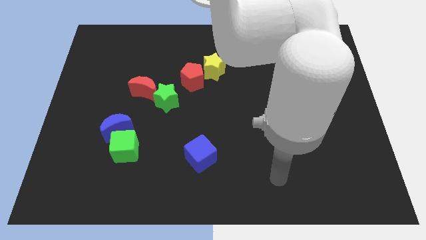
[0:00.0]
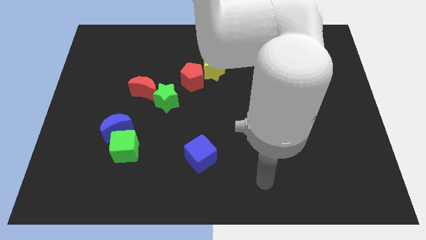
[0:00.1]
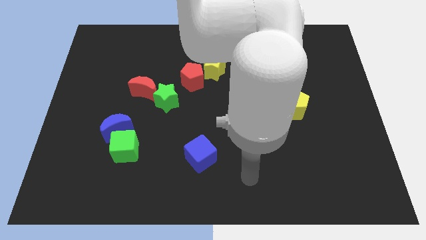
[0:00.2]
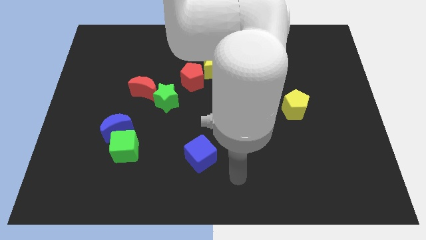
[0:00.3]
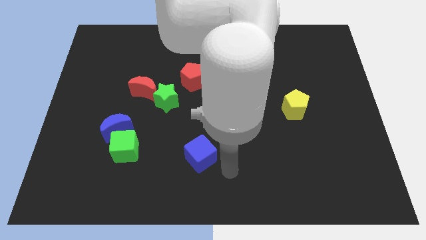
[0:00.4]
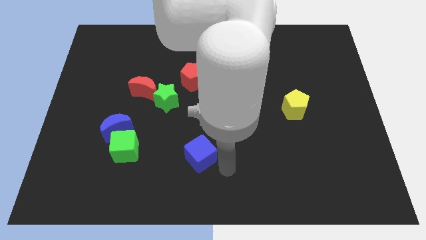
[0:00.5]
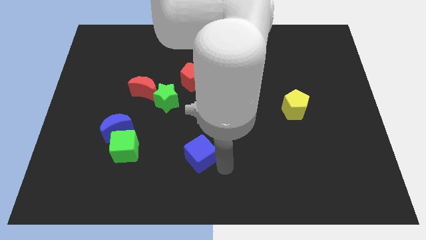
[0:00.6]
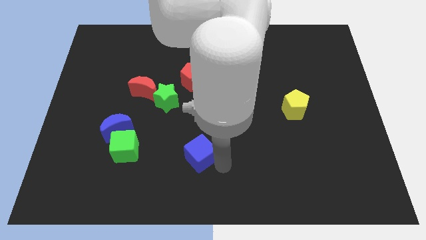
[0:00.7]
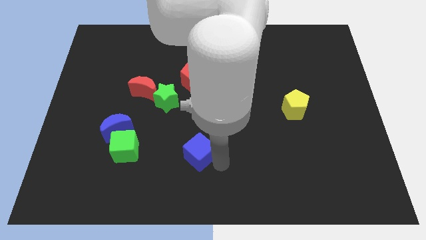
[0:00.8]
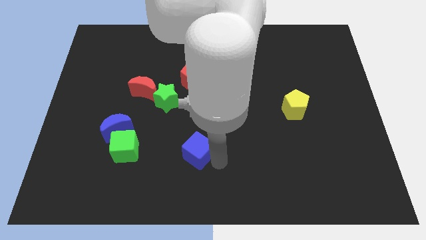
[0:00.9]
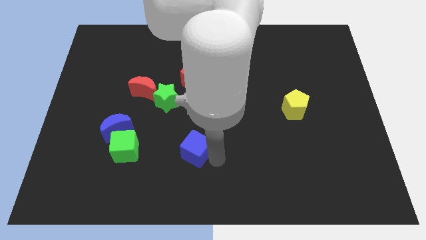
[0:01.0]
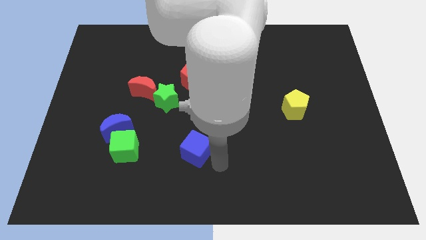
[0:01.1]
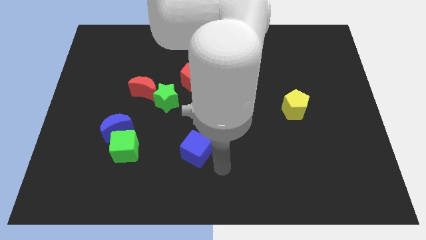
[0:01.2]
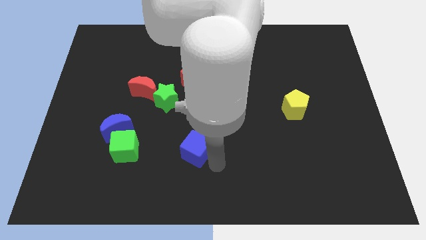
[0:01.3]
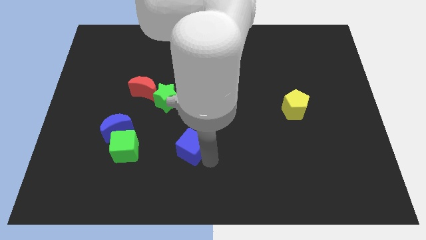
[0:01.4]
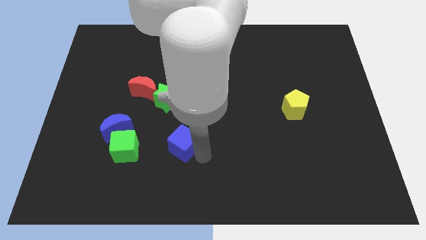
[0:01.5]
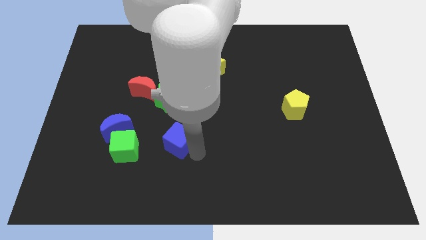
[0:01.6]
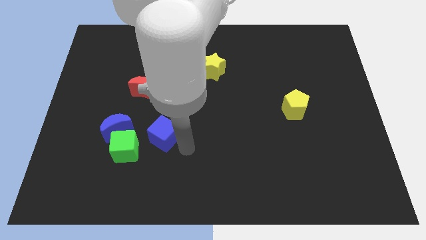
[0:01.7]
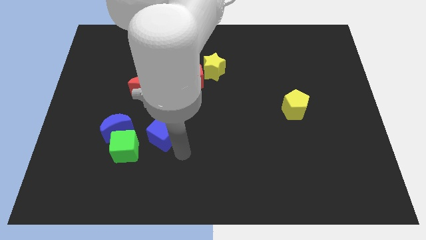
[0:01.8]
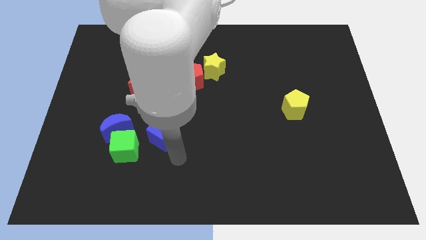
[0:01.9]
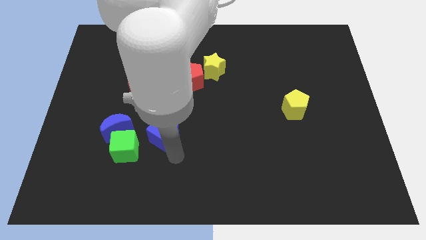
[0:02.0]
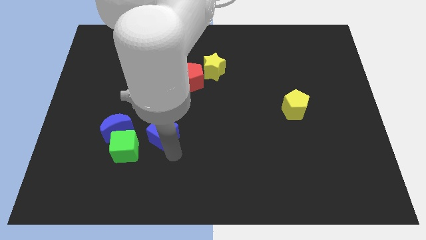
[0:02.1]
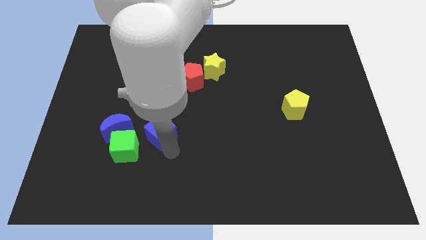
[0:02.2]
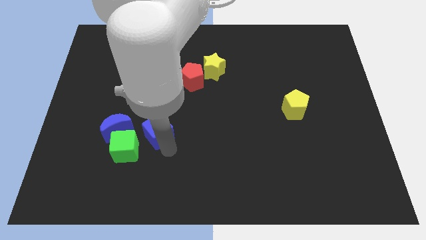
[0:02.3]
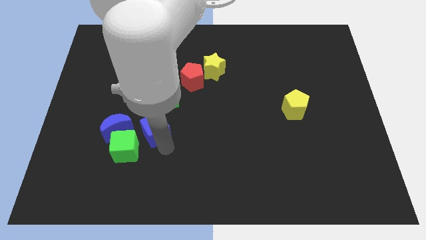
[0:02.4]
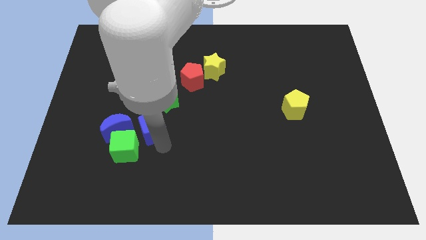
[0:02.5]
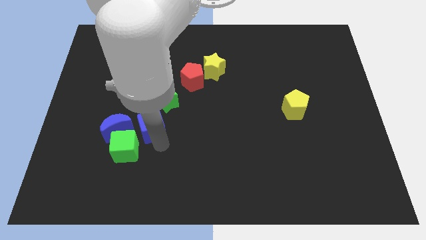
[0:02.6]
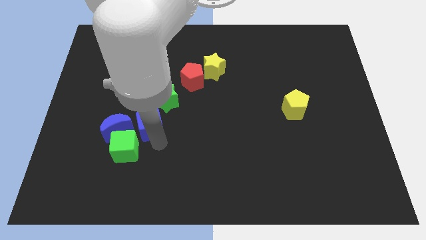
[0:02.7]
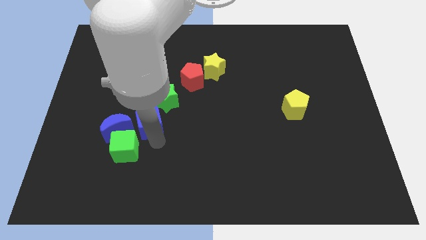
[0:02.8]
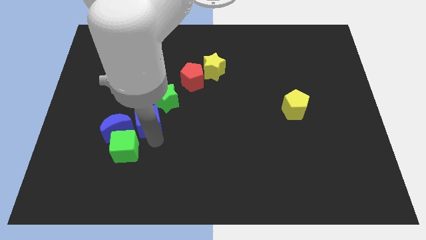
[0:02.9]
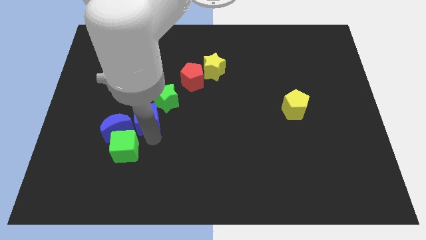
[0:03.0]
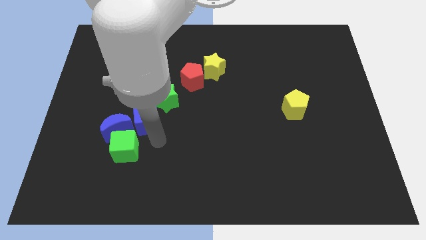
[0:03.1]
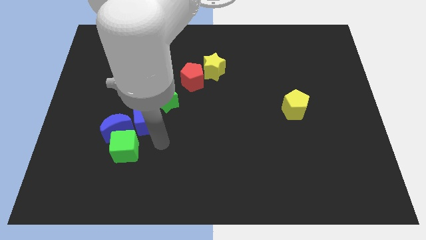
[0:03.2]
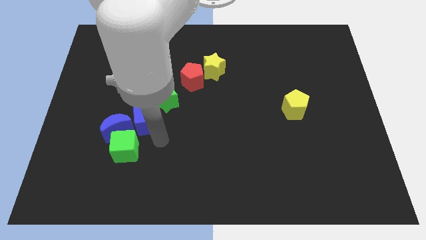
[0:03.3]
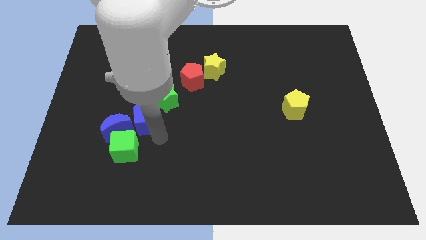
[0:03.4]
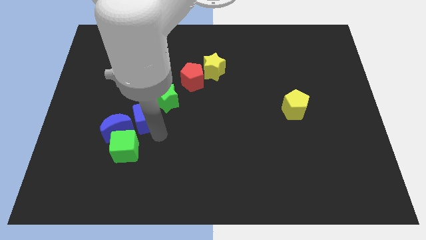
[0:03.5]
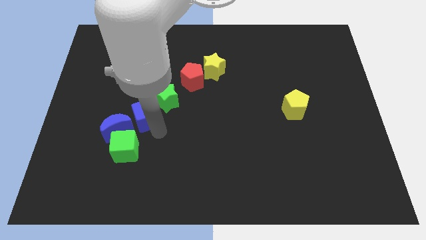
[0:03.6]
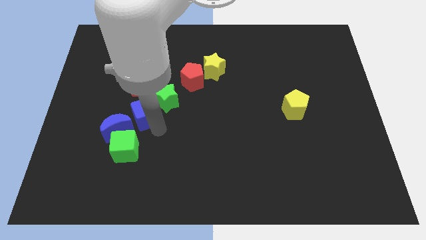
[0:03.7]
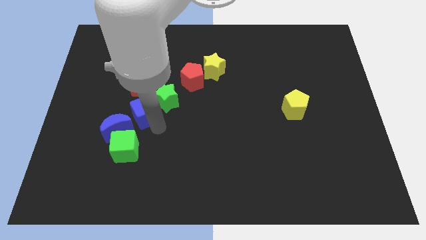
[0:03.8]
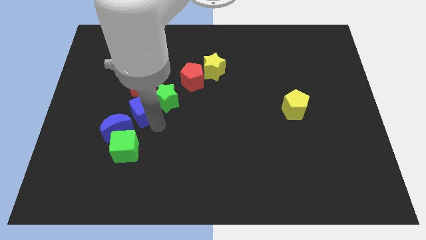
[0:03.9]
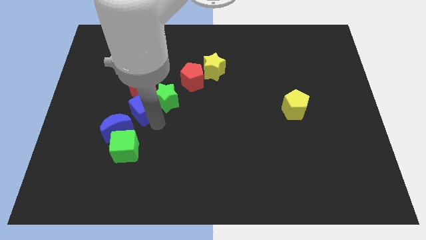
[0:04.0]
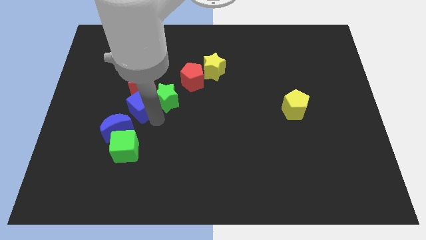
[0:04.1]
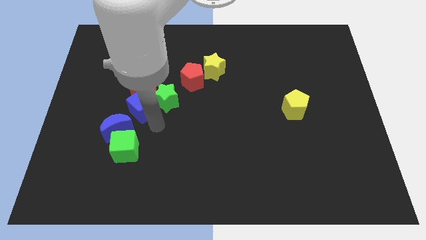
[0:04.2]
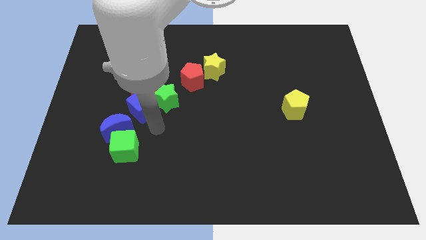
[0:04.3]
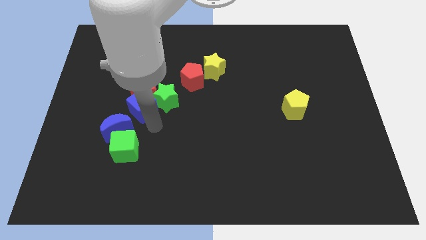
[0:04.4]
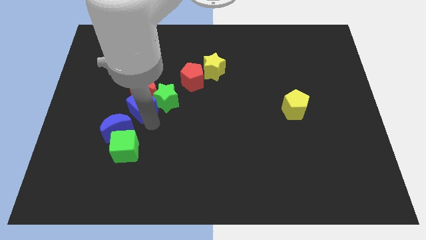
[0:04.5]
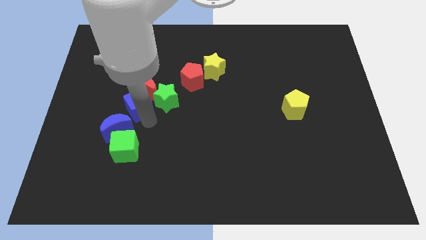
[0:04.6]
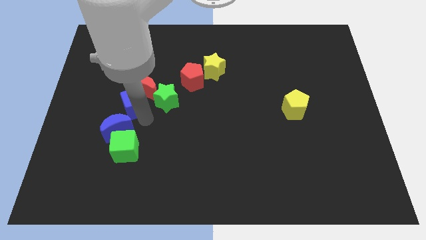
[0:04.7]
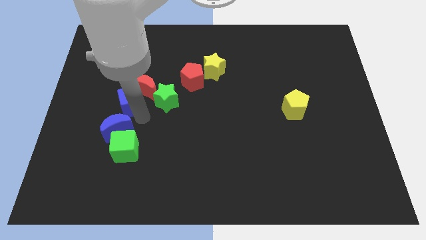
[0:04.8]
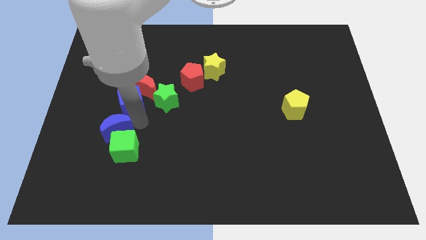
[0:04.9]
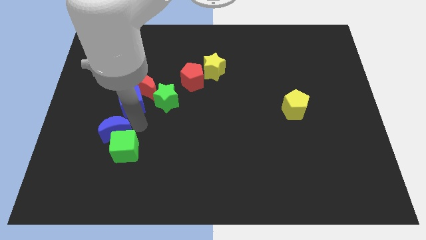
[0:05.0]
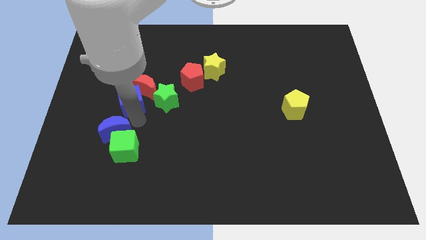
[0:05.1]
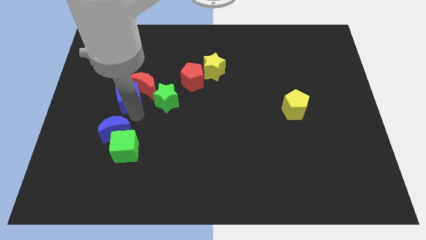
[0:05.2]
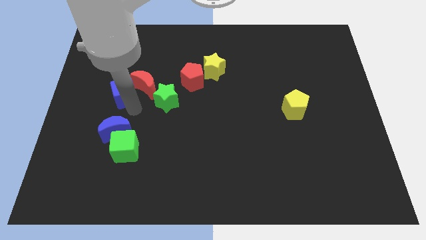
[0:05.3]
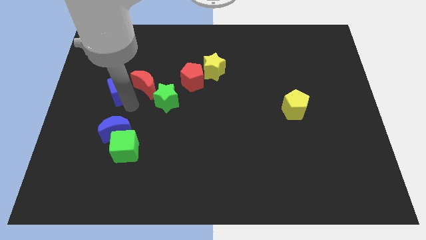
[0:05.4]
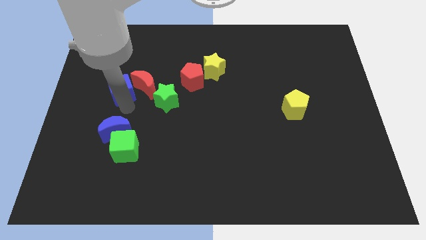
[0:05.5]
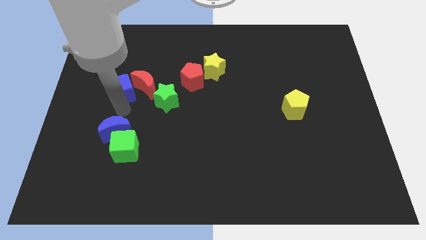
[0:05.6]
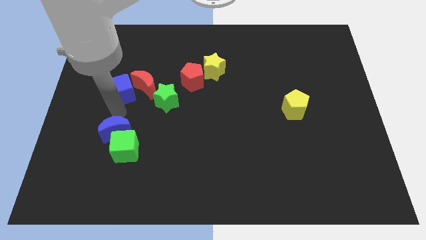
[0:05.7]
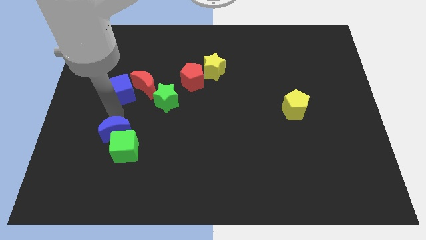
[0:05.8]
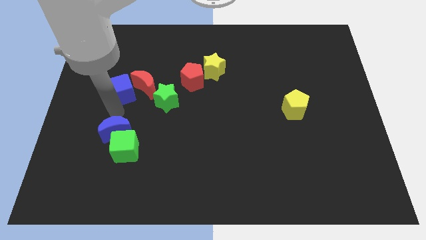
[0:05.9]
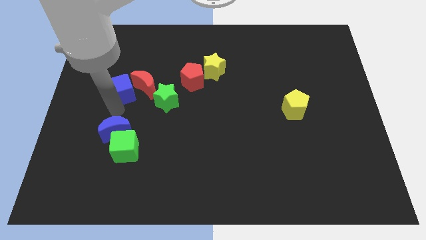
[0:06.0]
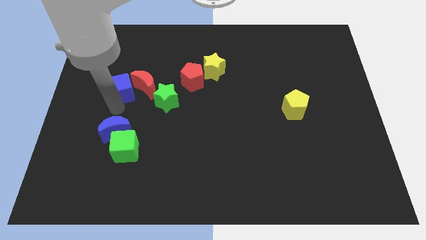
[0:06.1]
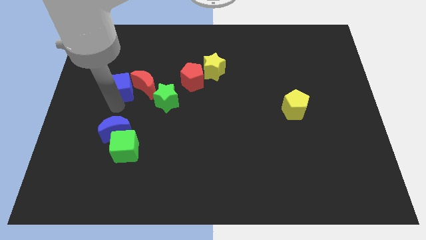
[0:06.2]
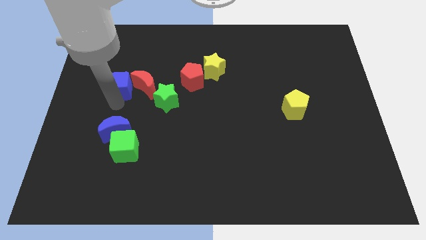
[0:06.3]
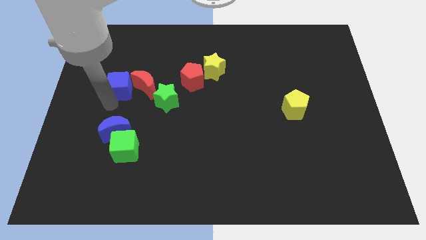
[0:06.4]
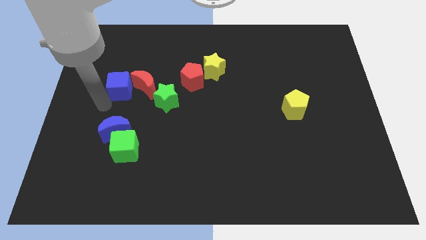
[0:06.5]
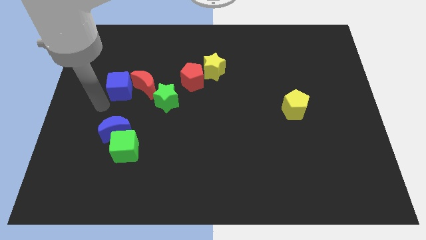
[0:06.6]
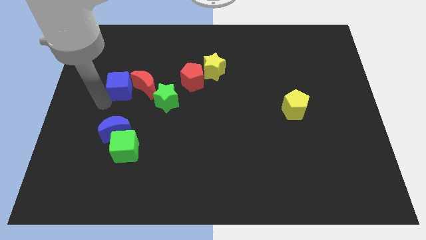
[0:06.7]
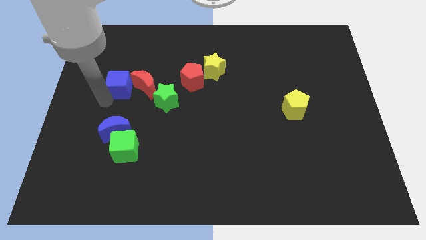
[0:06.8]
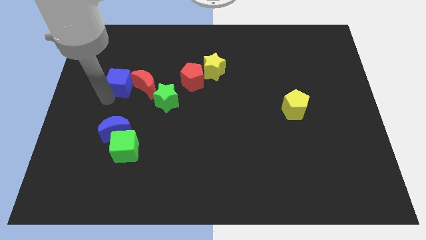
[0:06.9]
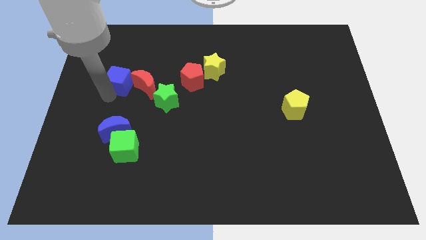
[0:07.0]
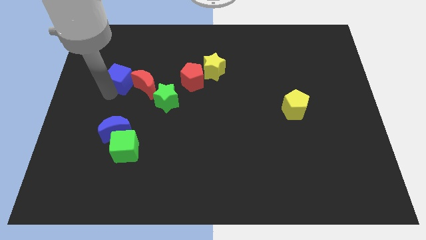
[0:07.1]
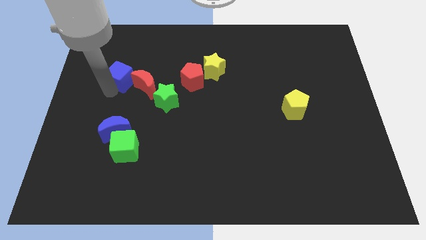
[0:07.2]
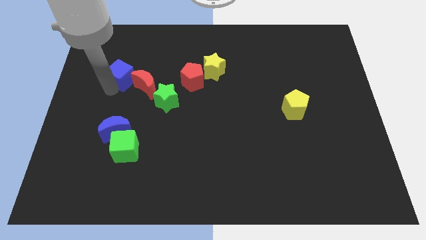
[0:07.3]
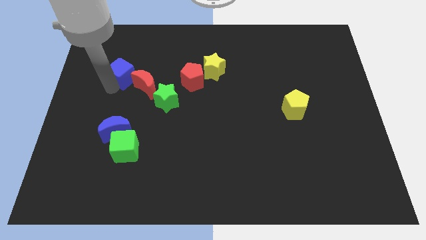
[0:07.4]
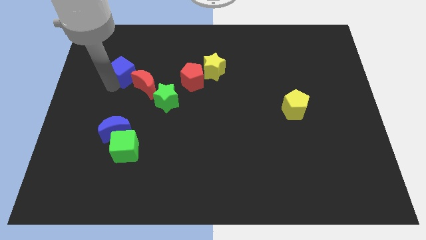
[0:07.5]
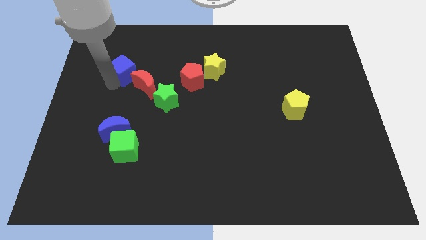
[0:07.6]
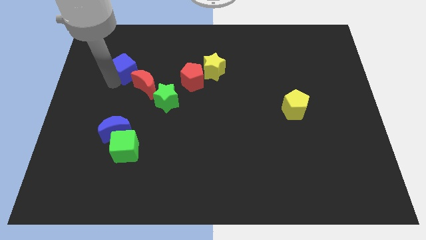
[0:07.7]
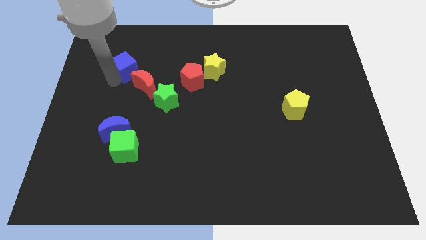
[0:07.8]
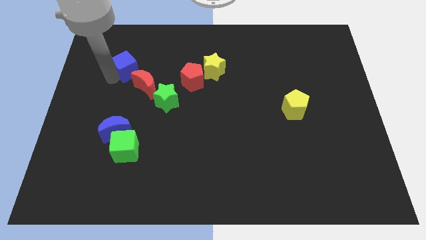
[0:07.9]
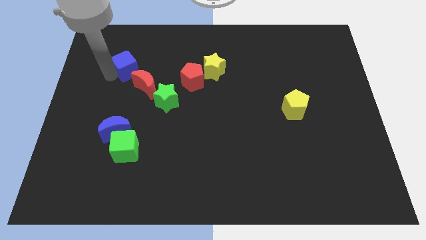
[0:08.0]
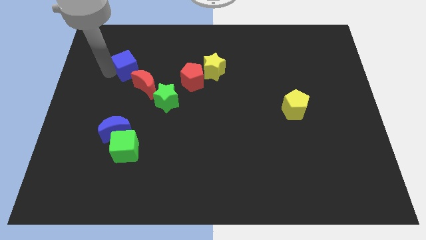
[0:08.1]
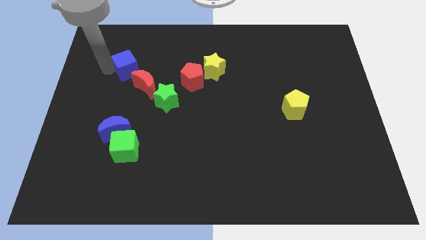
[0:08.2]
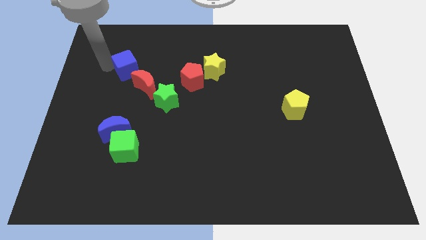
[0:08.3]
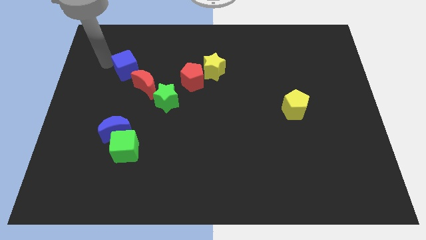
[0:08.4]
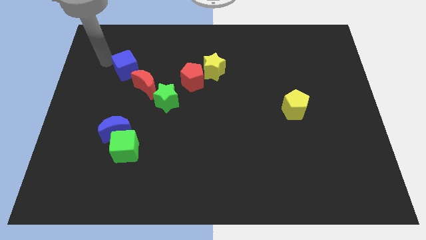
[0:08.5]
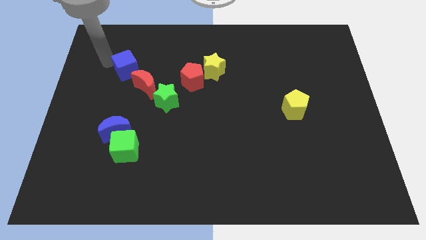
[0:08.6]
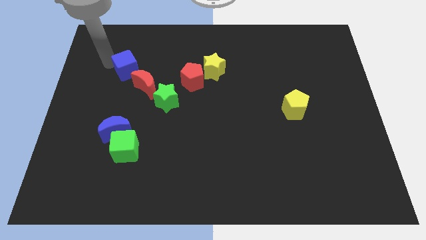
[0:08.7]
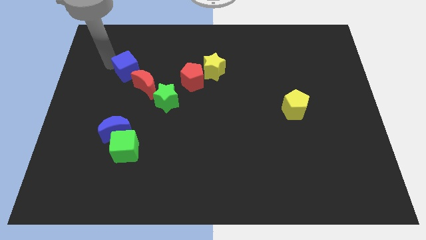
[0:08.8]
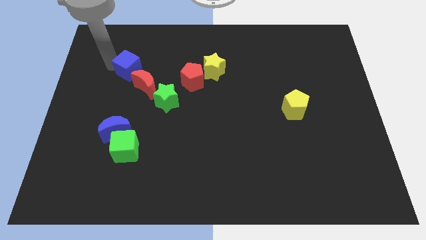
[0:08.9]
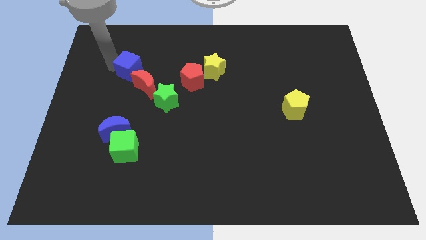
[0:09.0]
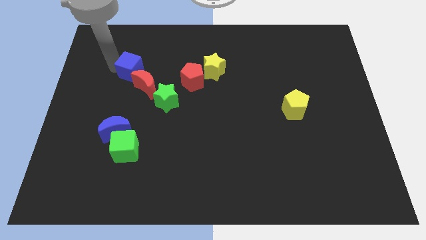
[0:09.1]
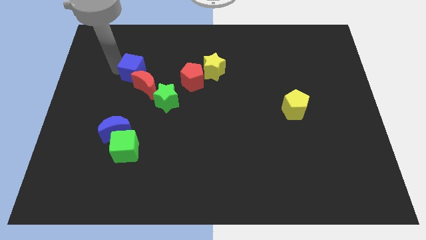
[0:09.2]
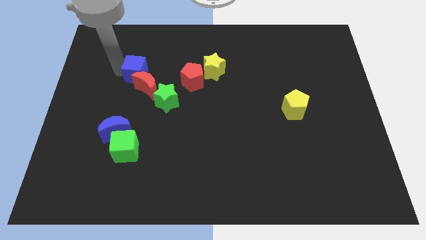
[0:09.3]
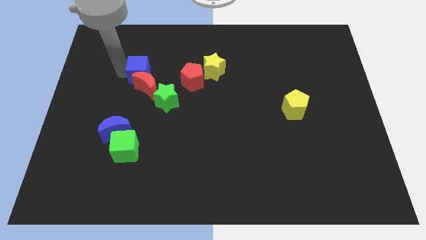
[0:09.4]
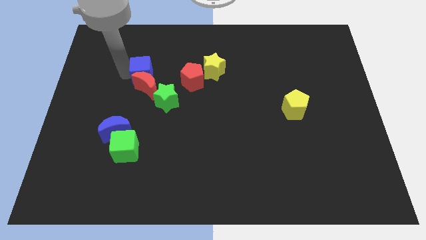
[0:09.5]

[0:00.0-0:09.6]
slide the blue cube diagonally up and to the right of the red moon
